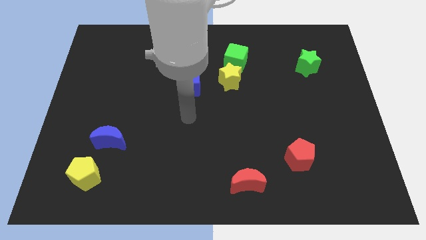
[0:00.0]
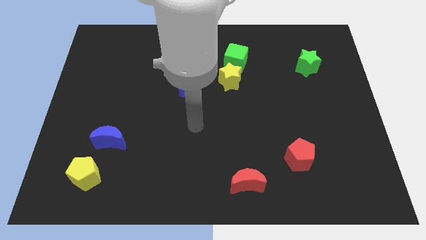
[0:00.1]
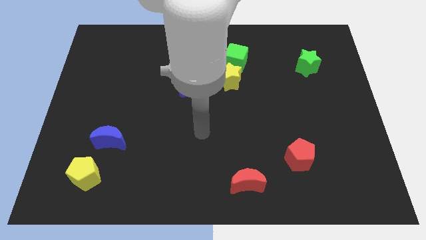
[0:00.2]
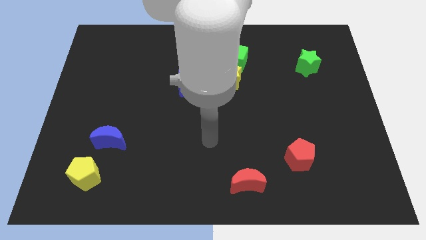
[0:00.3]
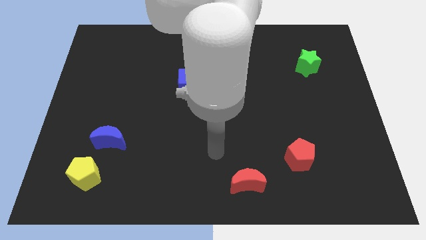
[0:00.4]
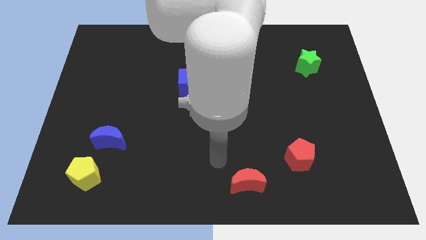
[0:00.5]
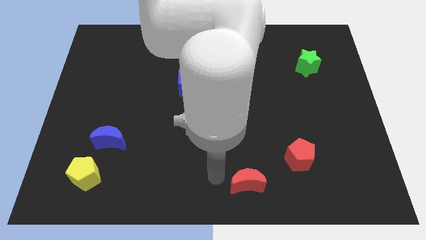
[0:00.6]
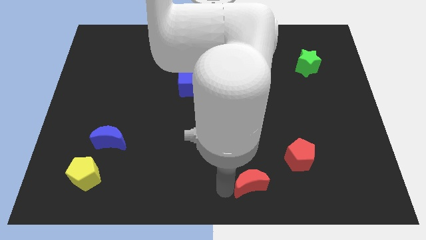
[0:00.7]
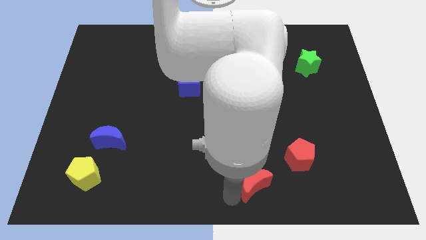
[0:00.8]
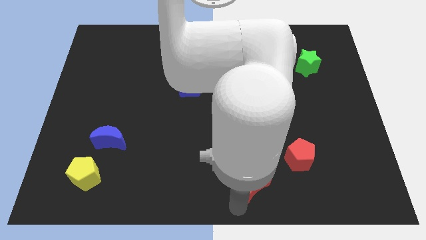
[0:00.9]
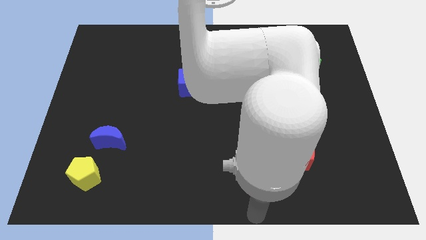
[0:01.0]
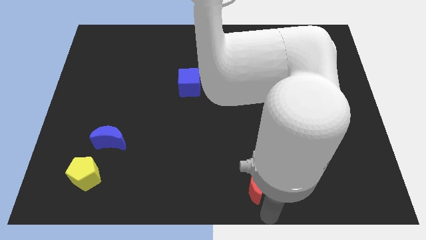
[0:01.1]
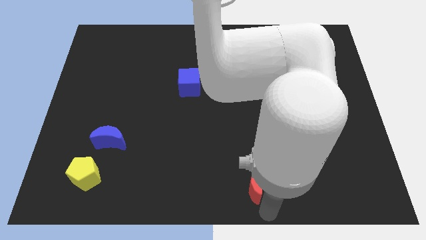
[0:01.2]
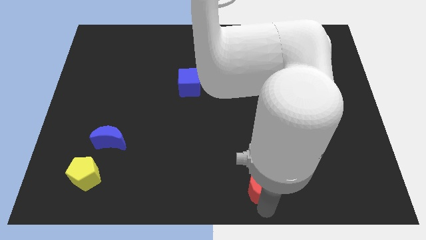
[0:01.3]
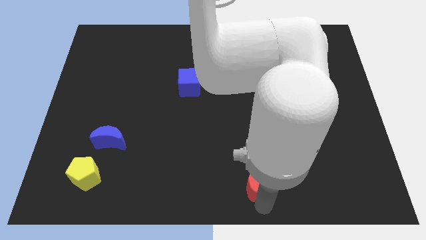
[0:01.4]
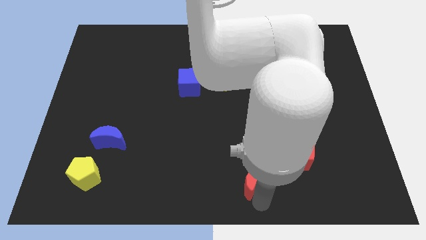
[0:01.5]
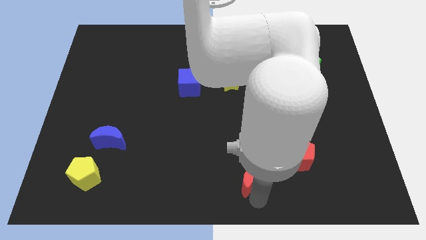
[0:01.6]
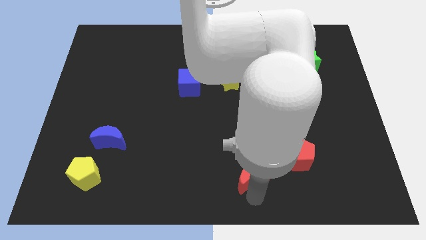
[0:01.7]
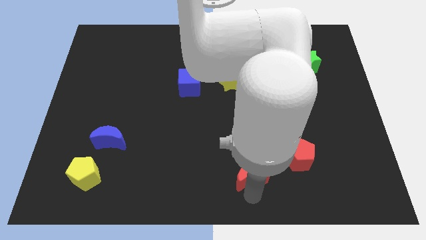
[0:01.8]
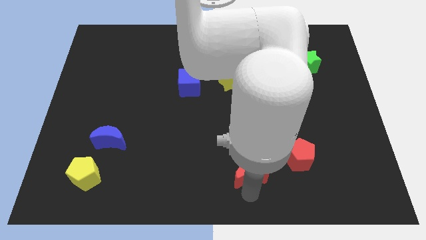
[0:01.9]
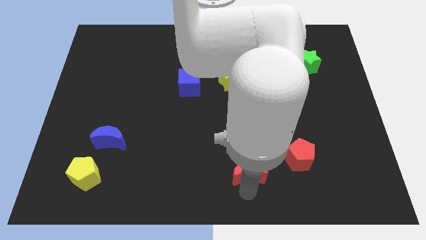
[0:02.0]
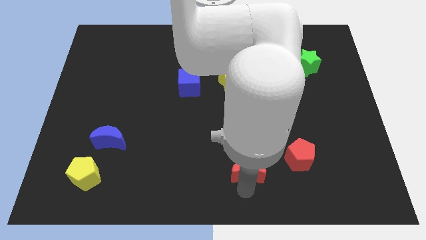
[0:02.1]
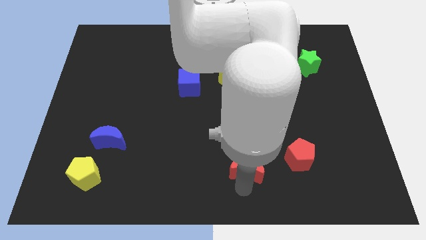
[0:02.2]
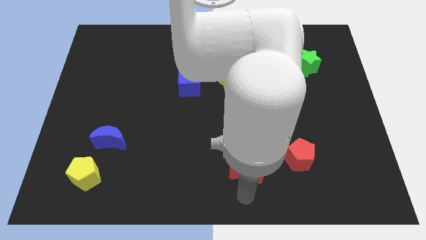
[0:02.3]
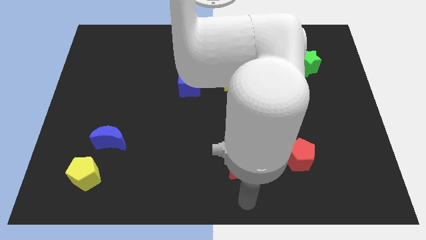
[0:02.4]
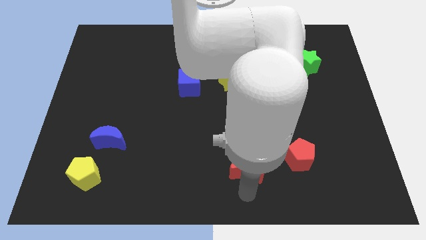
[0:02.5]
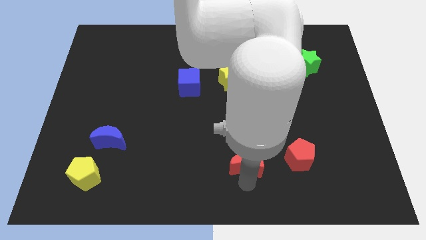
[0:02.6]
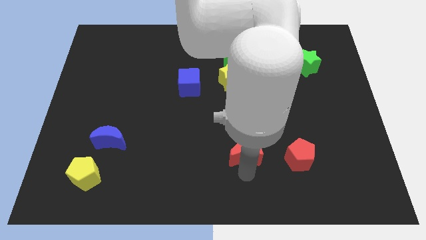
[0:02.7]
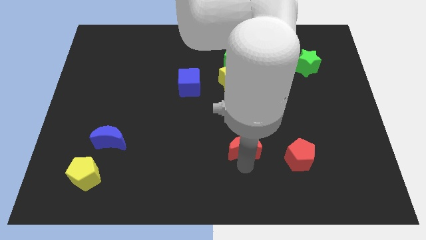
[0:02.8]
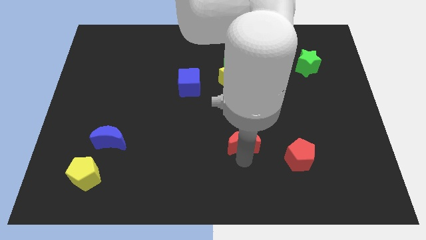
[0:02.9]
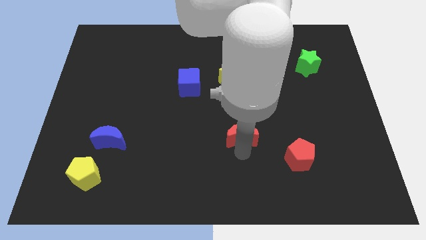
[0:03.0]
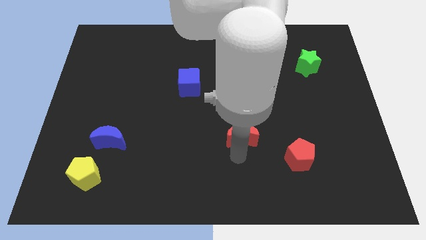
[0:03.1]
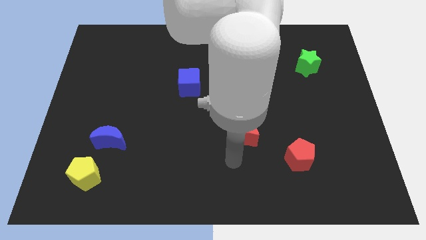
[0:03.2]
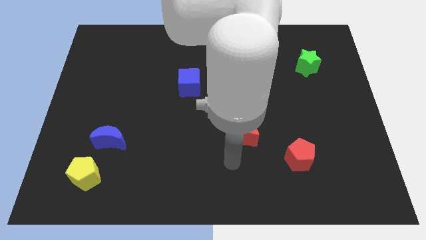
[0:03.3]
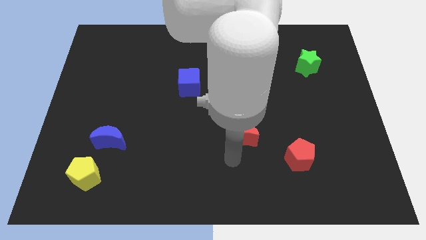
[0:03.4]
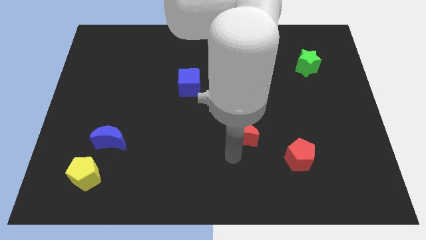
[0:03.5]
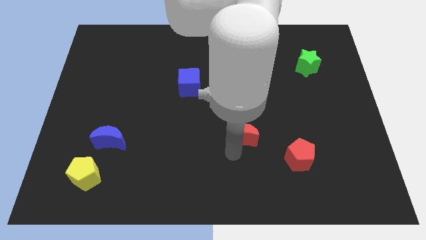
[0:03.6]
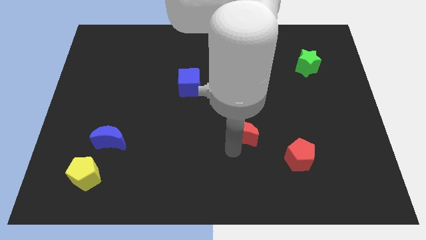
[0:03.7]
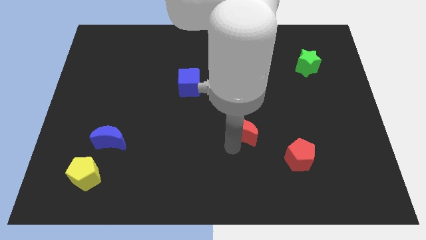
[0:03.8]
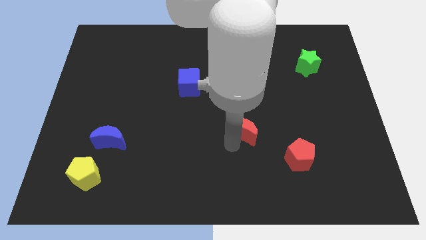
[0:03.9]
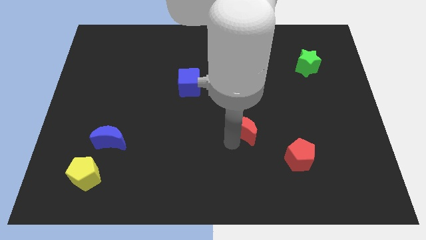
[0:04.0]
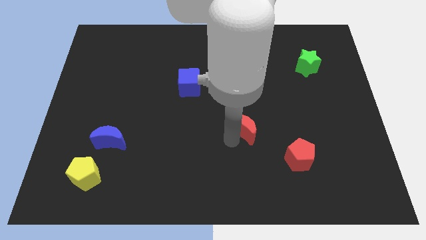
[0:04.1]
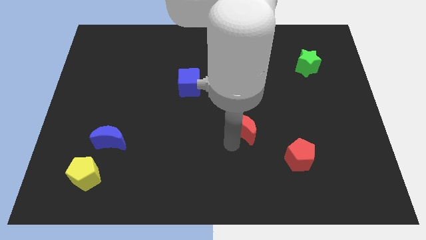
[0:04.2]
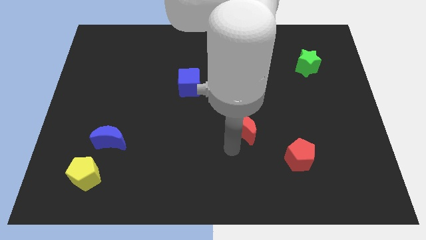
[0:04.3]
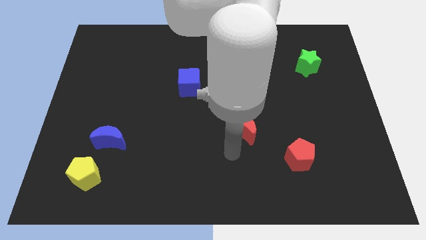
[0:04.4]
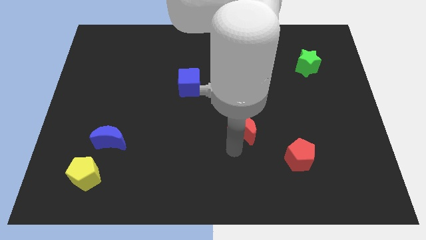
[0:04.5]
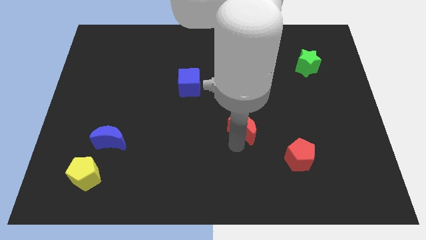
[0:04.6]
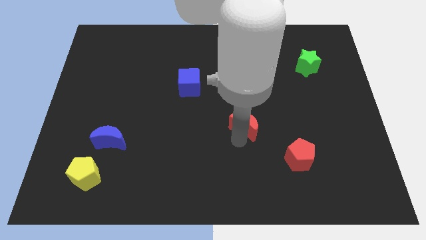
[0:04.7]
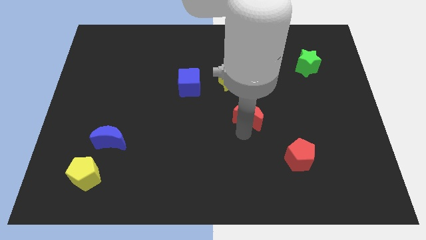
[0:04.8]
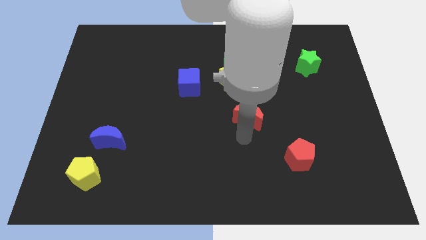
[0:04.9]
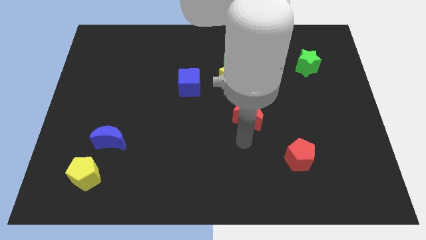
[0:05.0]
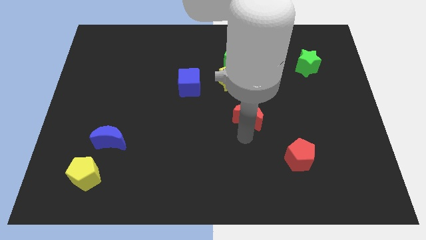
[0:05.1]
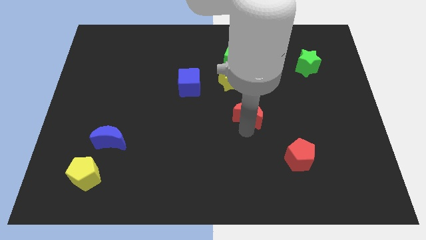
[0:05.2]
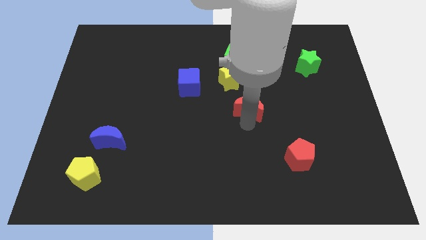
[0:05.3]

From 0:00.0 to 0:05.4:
slide the red moon to the bottom right side of the yellow star

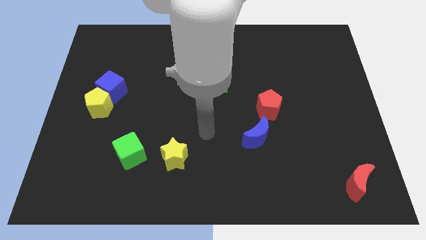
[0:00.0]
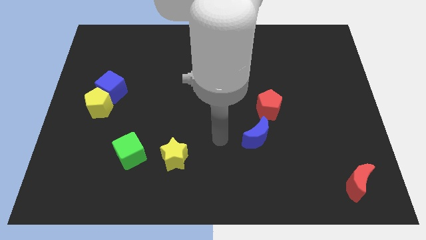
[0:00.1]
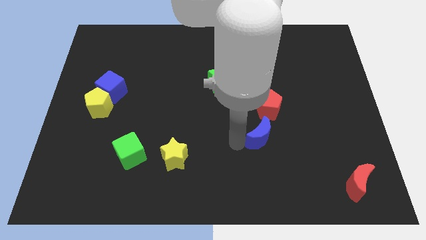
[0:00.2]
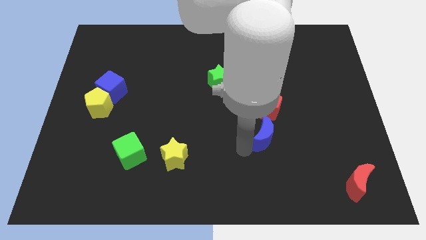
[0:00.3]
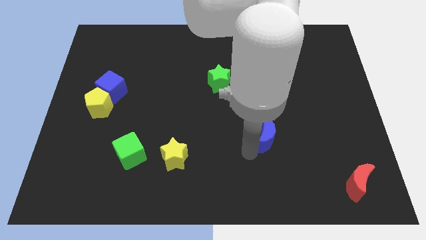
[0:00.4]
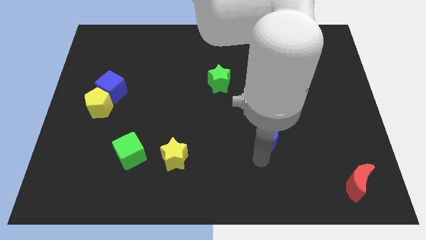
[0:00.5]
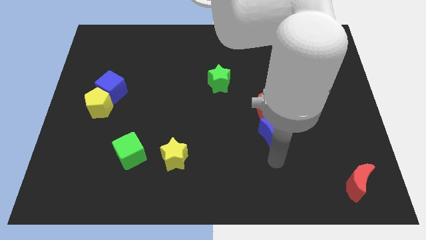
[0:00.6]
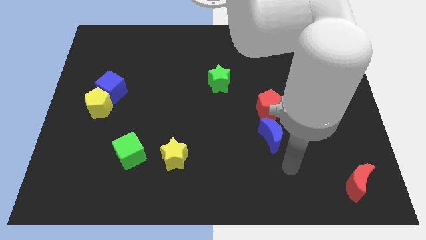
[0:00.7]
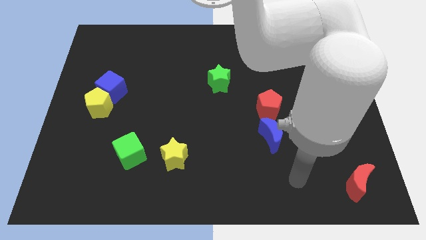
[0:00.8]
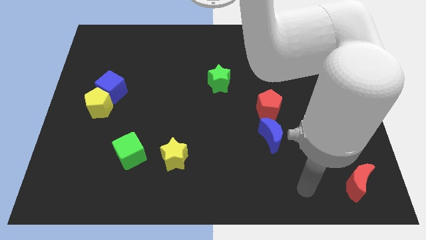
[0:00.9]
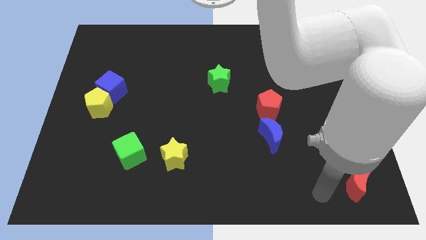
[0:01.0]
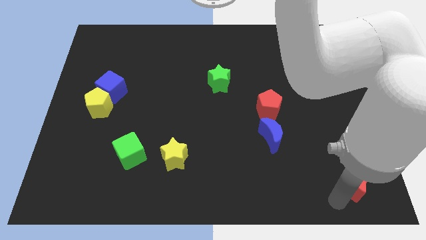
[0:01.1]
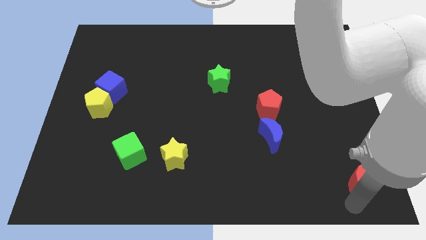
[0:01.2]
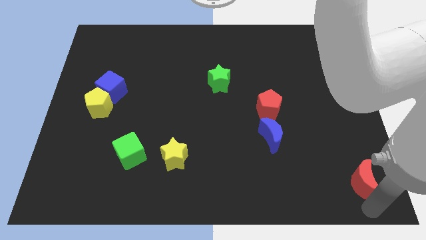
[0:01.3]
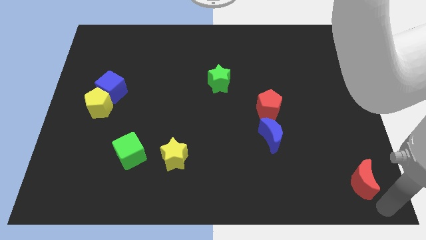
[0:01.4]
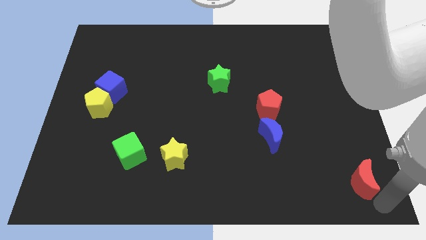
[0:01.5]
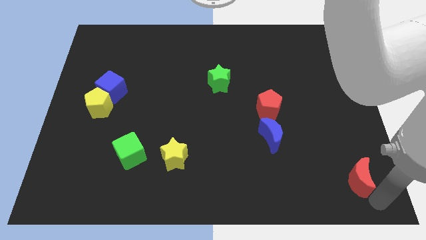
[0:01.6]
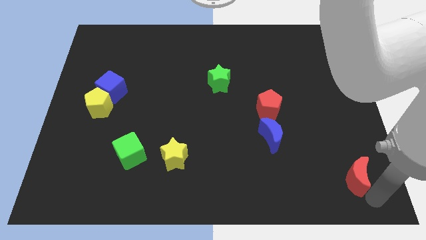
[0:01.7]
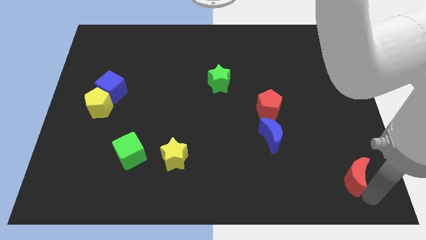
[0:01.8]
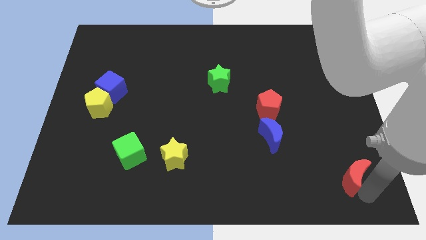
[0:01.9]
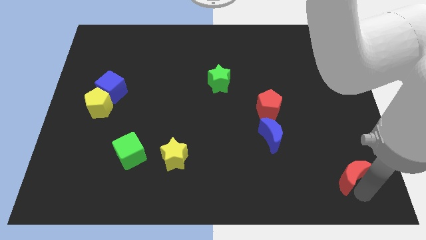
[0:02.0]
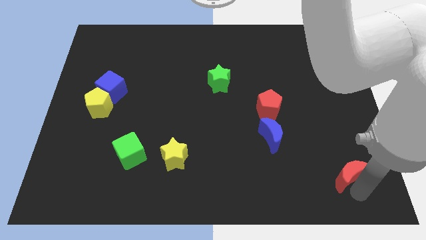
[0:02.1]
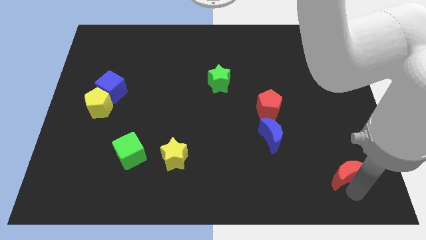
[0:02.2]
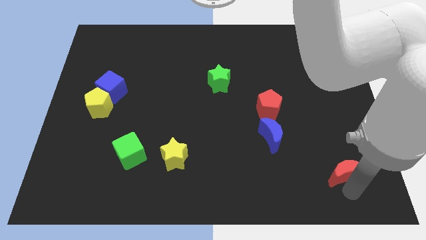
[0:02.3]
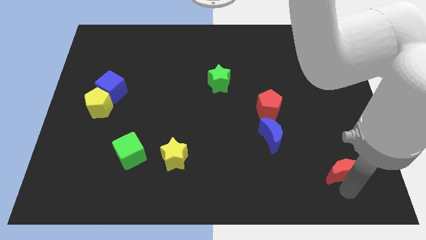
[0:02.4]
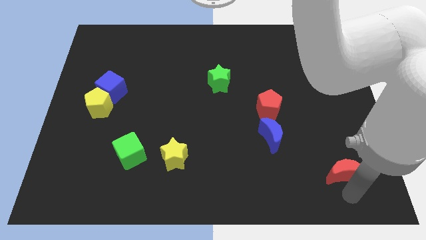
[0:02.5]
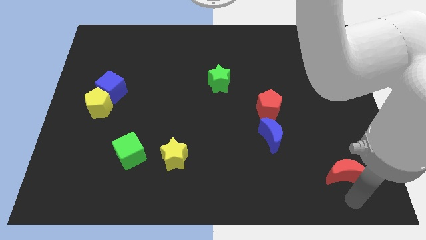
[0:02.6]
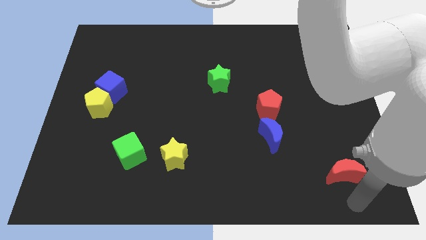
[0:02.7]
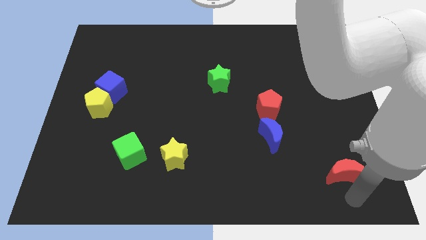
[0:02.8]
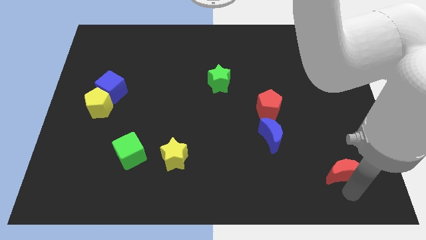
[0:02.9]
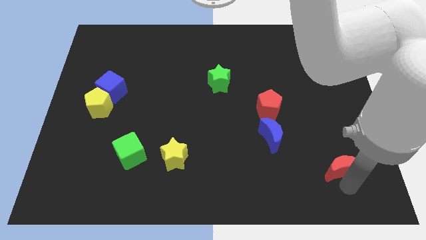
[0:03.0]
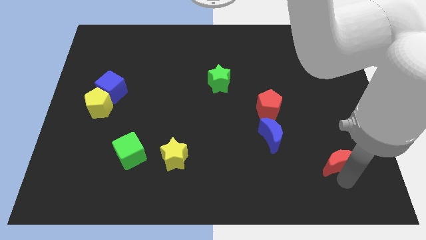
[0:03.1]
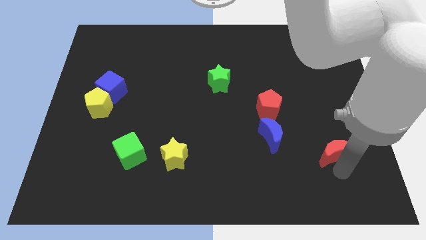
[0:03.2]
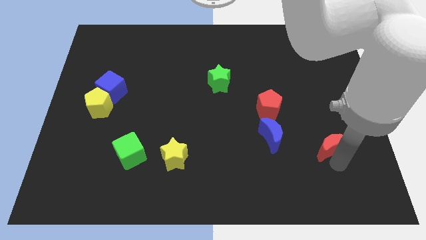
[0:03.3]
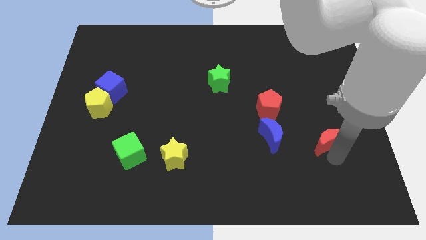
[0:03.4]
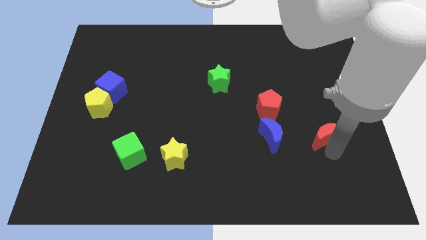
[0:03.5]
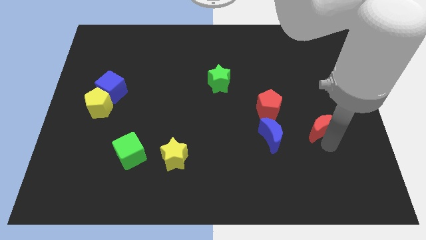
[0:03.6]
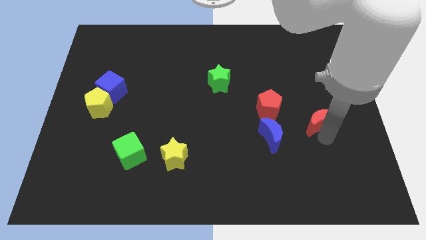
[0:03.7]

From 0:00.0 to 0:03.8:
move the red moon to the right of the red pentagon
